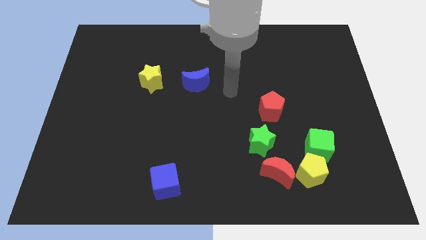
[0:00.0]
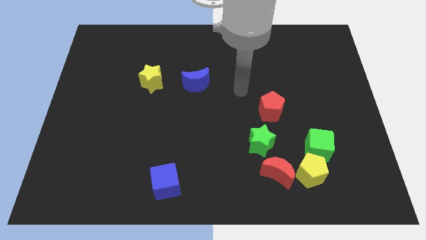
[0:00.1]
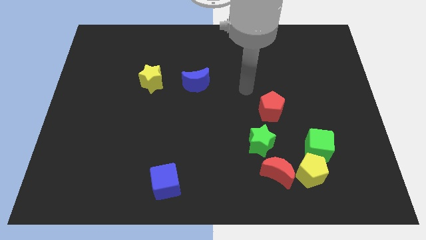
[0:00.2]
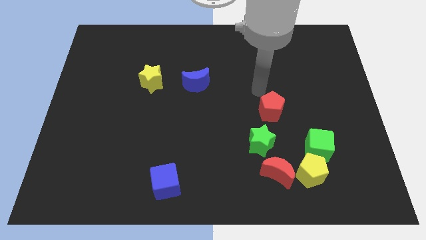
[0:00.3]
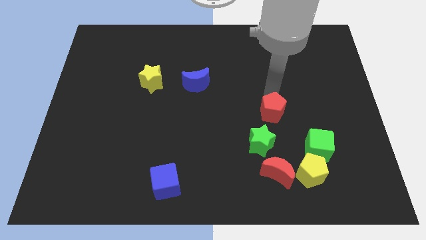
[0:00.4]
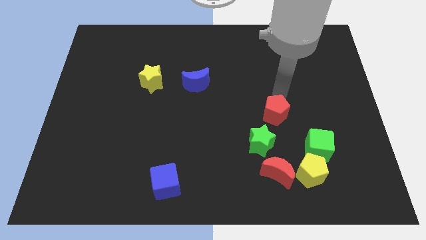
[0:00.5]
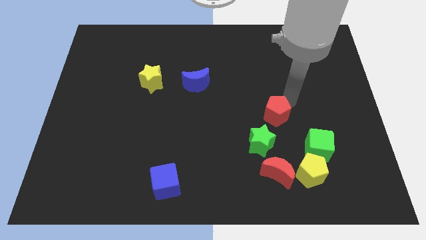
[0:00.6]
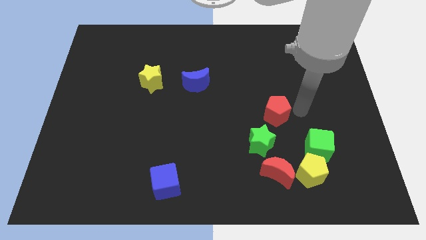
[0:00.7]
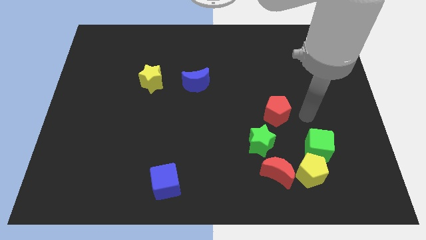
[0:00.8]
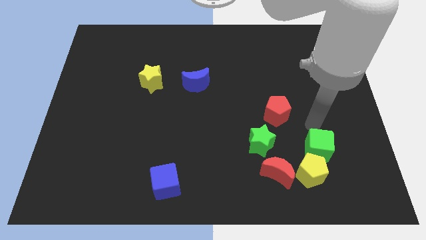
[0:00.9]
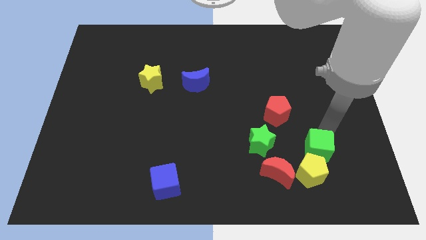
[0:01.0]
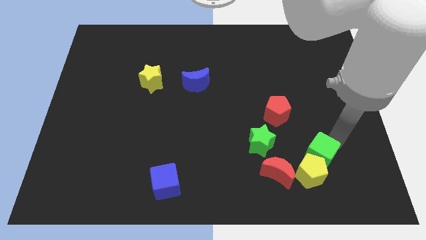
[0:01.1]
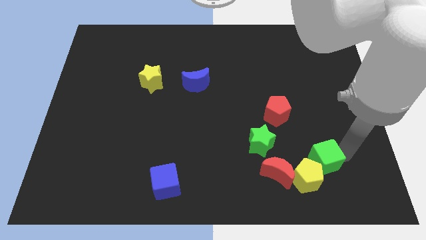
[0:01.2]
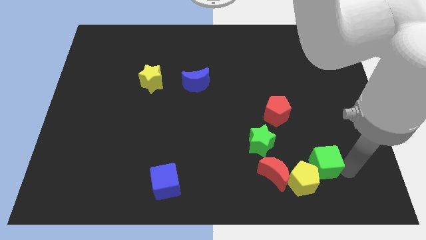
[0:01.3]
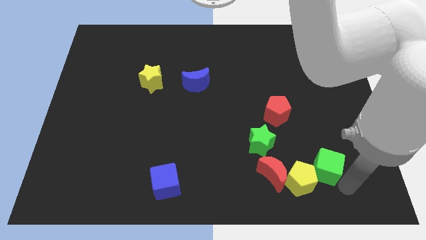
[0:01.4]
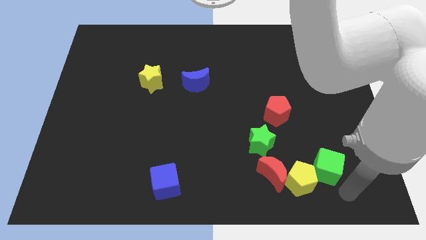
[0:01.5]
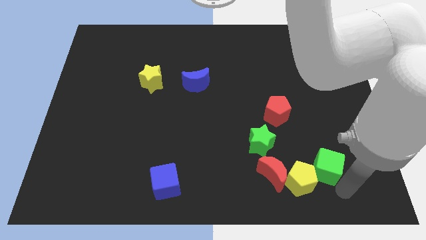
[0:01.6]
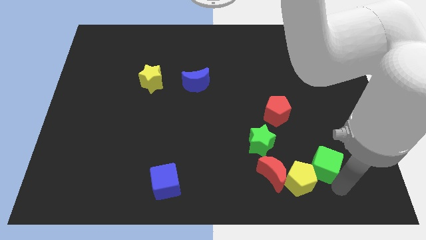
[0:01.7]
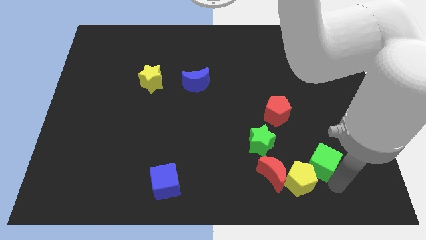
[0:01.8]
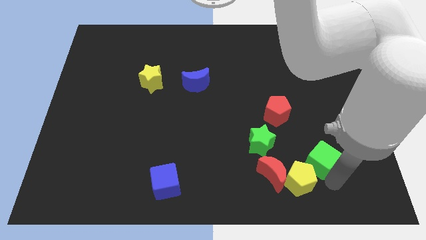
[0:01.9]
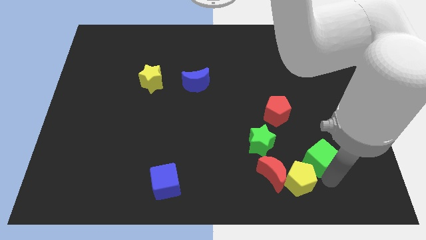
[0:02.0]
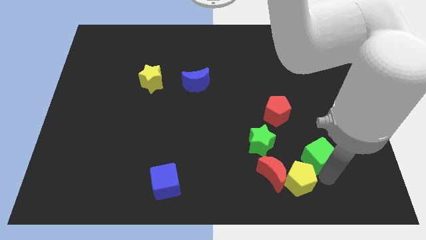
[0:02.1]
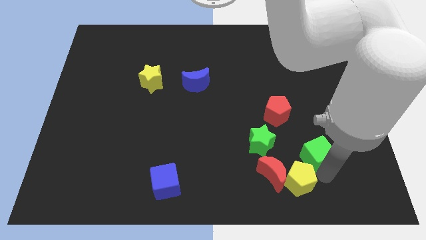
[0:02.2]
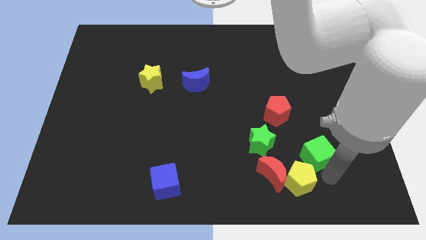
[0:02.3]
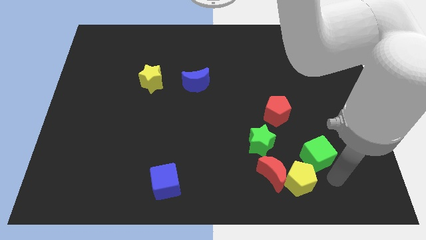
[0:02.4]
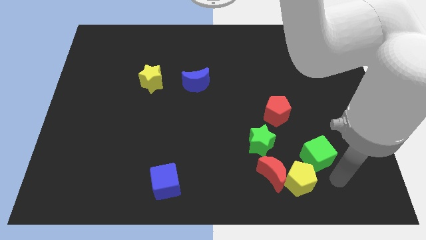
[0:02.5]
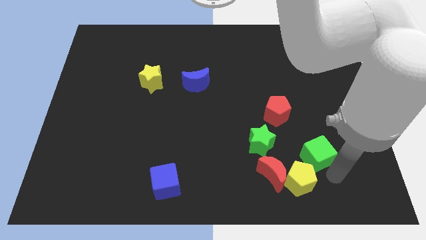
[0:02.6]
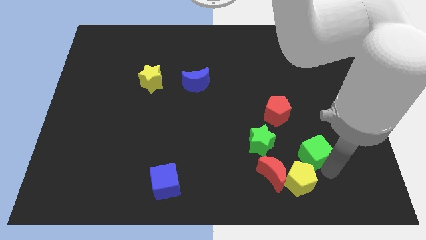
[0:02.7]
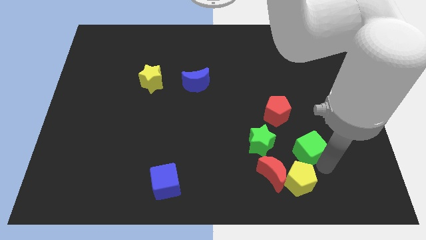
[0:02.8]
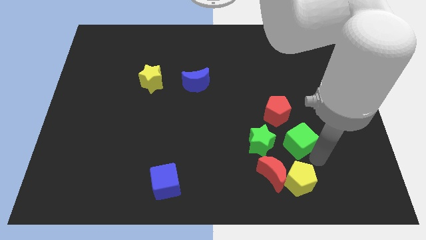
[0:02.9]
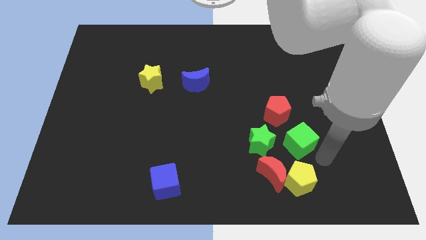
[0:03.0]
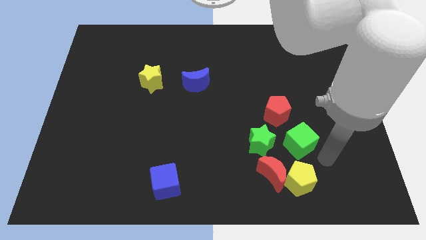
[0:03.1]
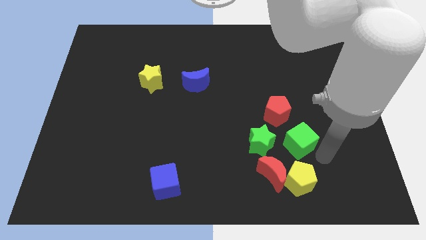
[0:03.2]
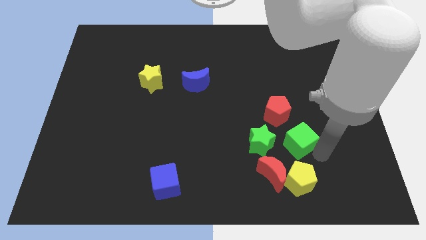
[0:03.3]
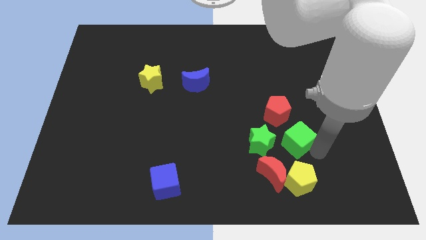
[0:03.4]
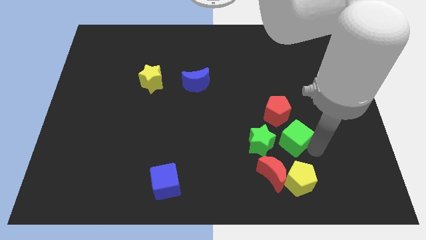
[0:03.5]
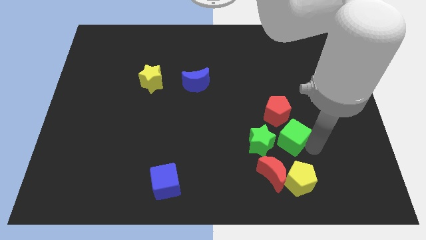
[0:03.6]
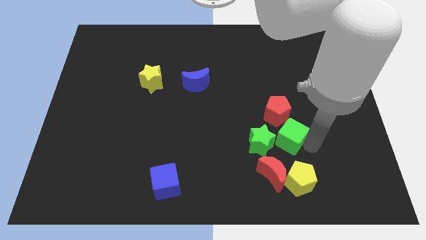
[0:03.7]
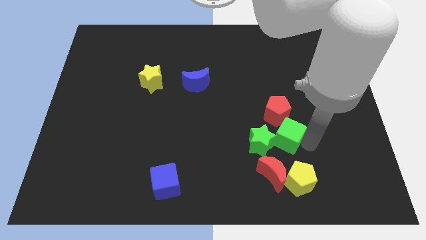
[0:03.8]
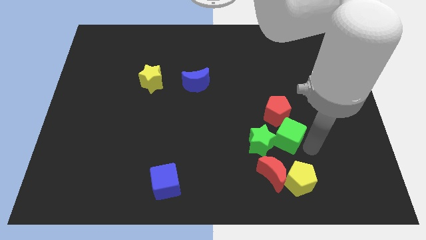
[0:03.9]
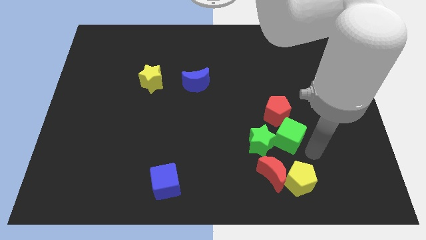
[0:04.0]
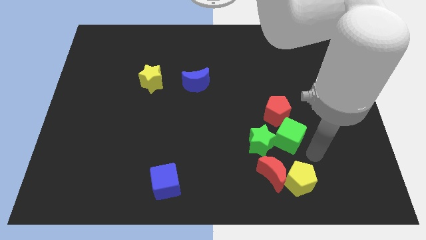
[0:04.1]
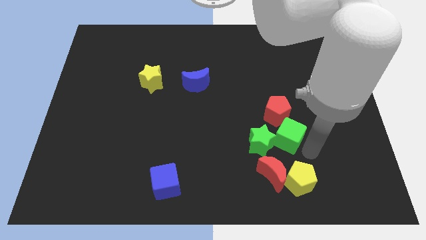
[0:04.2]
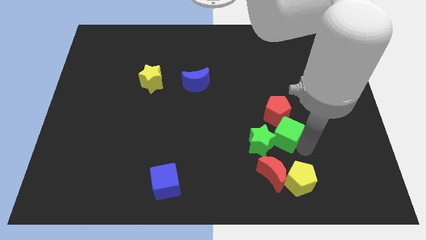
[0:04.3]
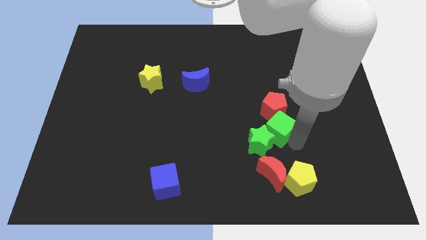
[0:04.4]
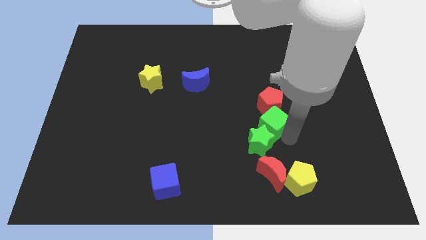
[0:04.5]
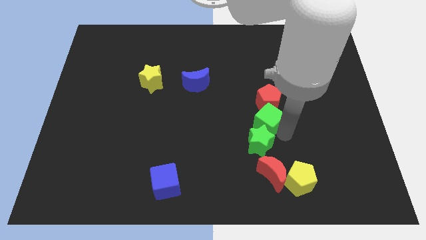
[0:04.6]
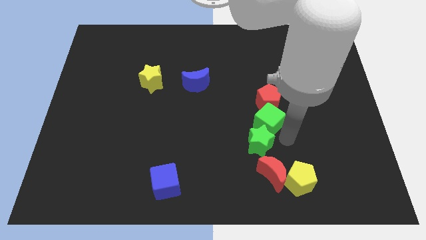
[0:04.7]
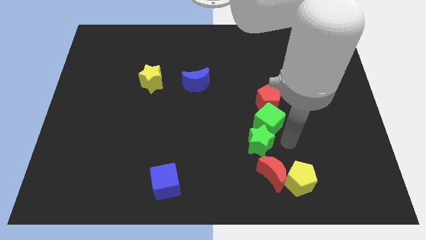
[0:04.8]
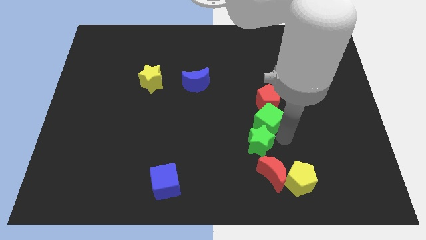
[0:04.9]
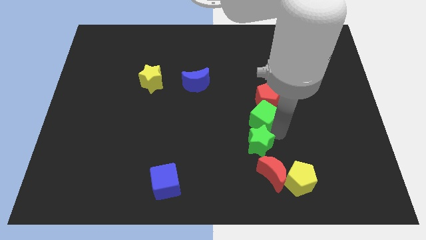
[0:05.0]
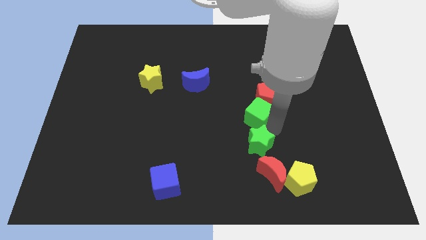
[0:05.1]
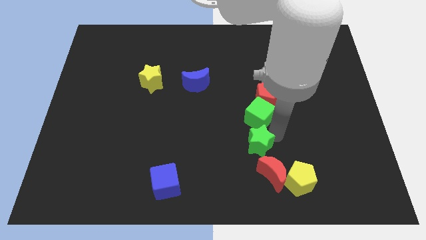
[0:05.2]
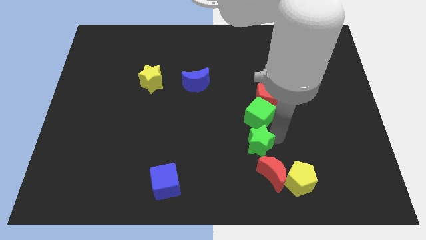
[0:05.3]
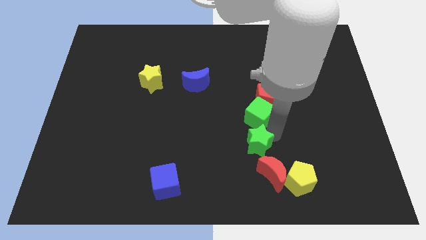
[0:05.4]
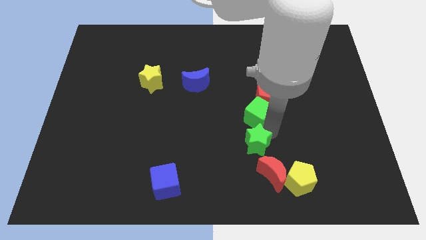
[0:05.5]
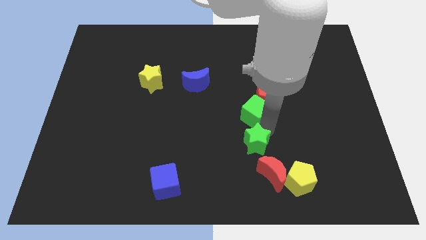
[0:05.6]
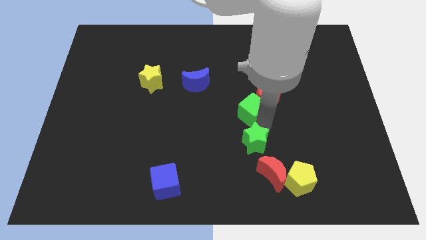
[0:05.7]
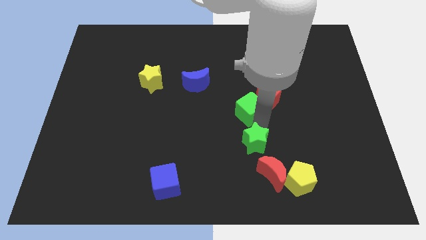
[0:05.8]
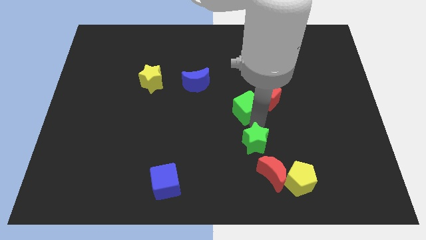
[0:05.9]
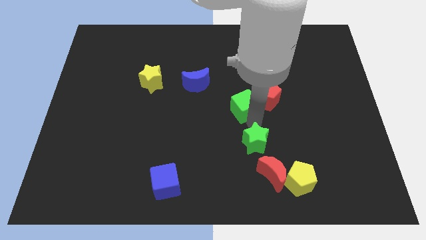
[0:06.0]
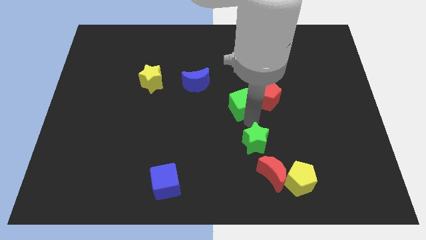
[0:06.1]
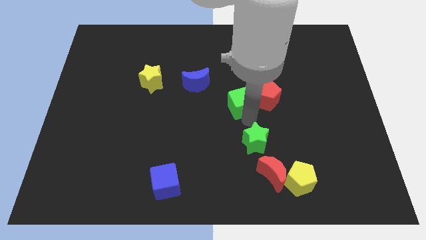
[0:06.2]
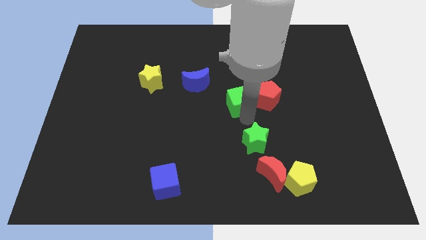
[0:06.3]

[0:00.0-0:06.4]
slide the green cube diagonally up and to the left

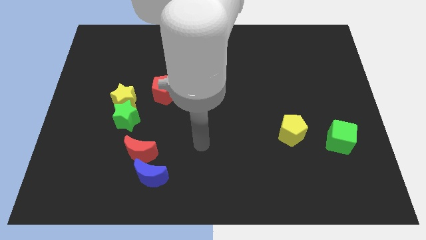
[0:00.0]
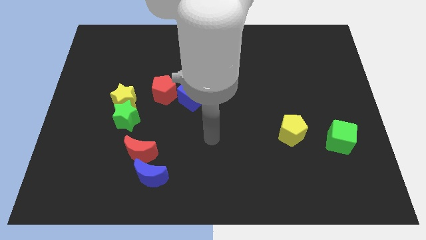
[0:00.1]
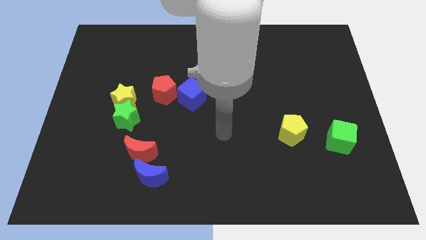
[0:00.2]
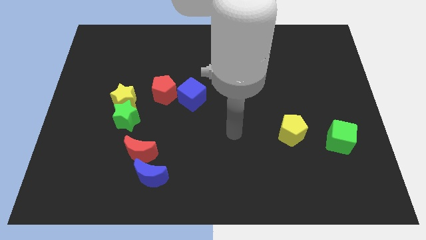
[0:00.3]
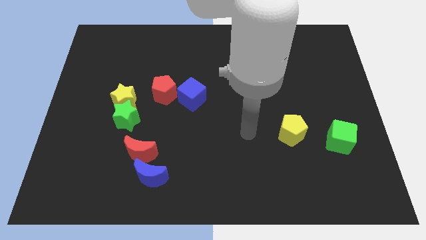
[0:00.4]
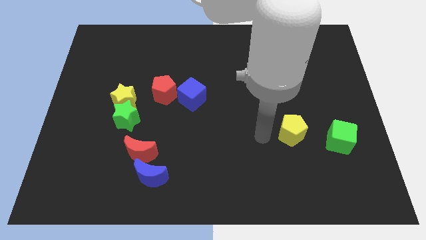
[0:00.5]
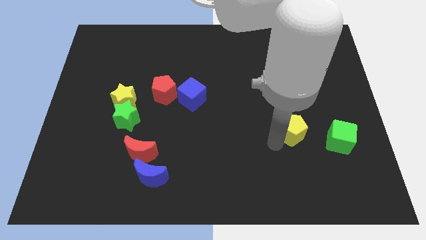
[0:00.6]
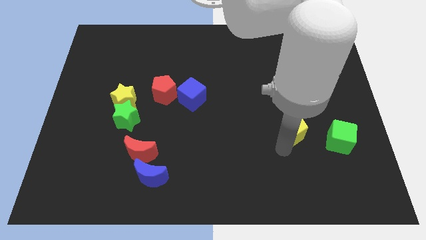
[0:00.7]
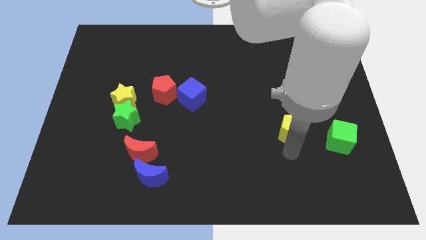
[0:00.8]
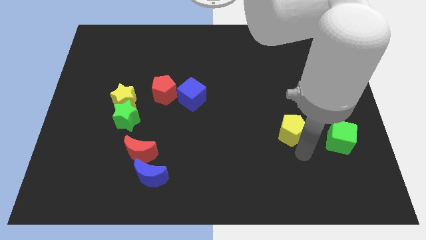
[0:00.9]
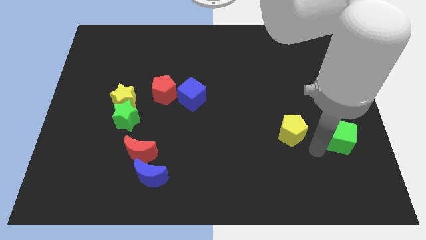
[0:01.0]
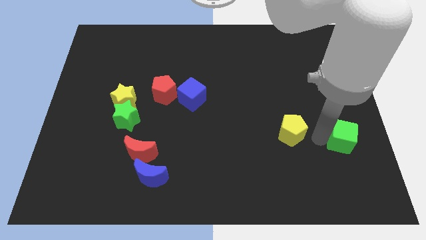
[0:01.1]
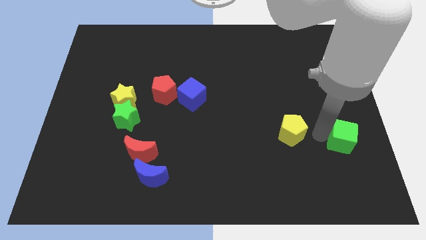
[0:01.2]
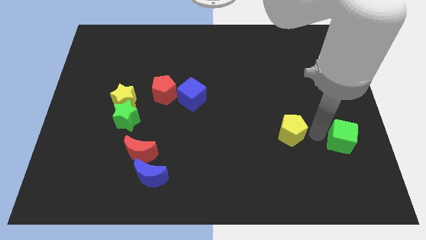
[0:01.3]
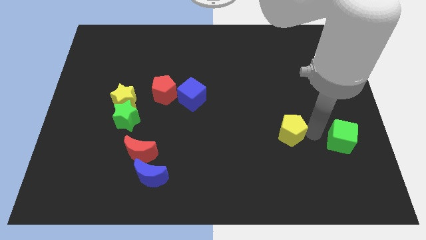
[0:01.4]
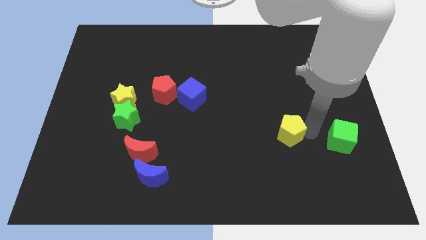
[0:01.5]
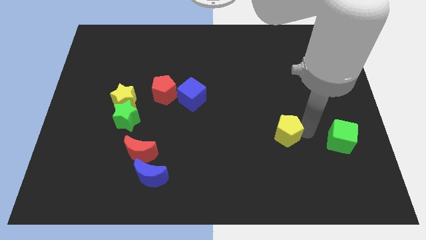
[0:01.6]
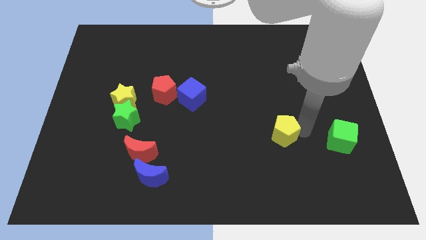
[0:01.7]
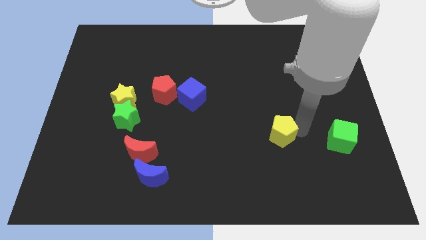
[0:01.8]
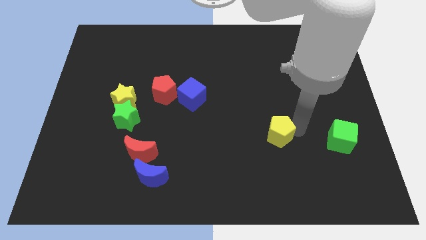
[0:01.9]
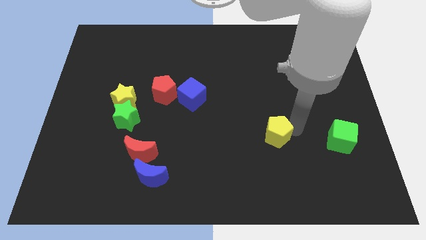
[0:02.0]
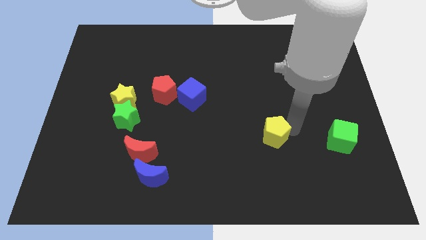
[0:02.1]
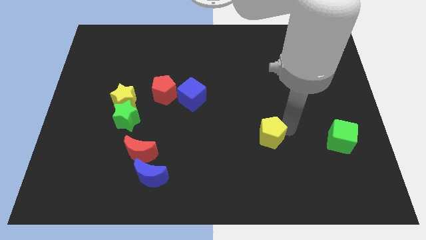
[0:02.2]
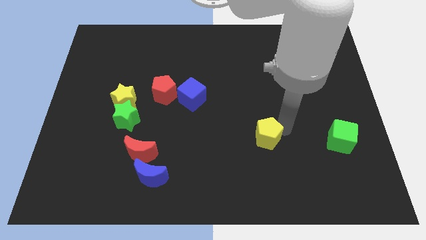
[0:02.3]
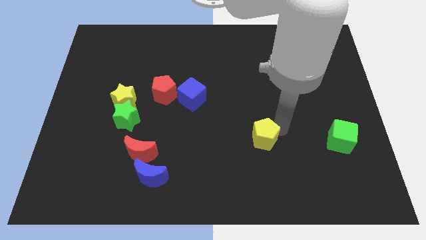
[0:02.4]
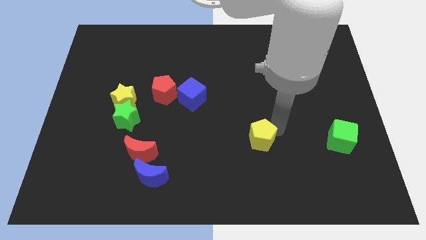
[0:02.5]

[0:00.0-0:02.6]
push the yellow pentagon to the left slightly
